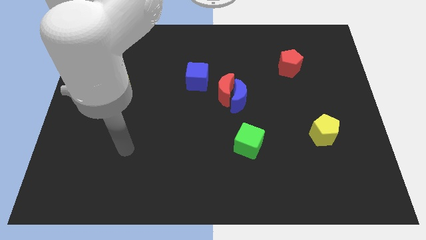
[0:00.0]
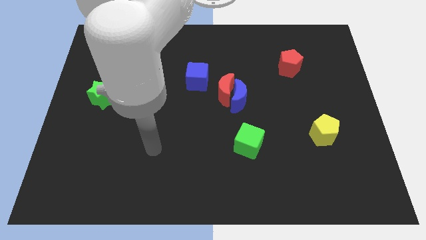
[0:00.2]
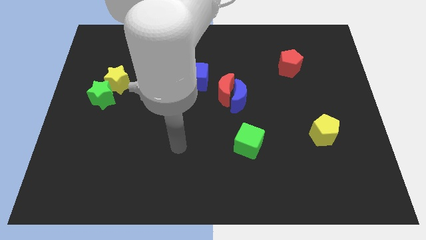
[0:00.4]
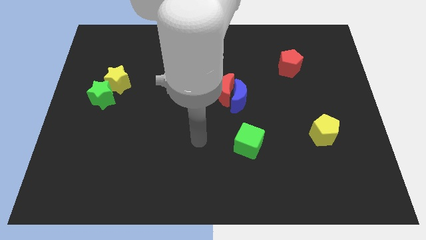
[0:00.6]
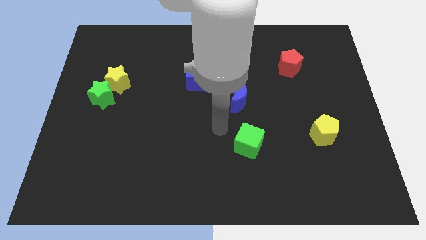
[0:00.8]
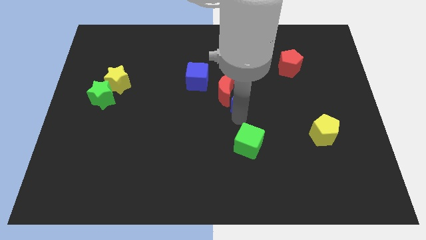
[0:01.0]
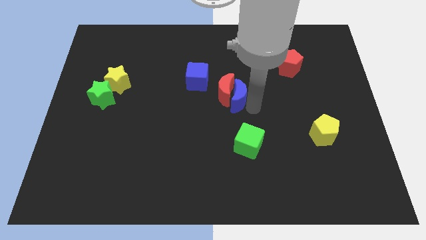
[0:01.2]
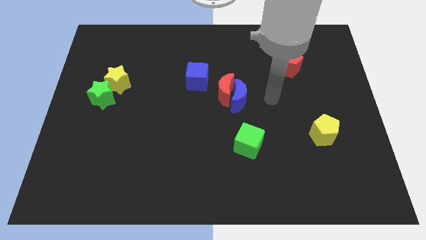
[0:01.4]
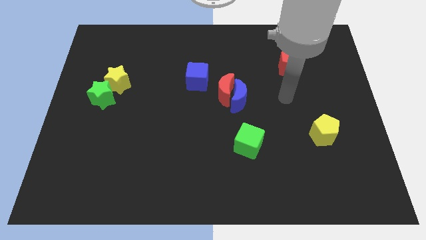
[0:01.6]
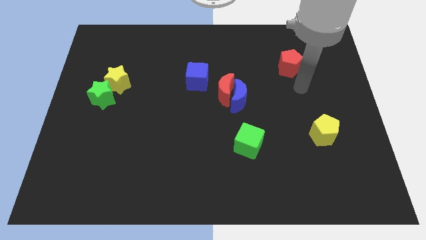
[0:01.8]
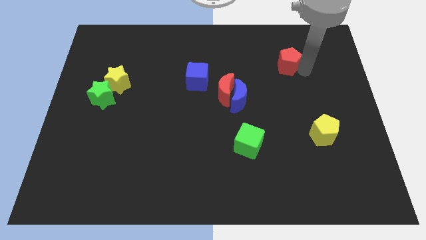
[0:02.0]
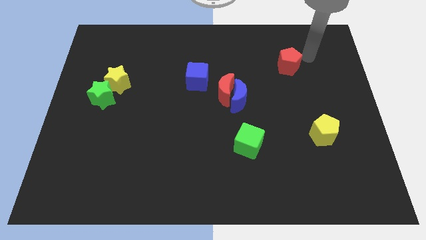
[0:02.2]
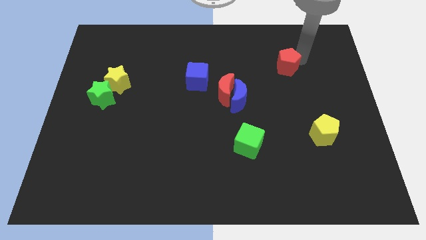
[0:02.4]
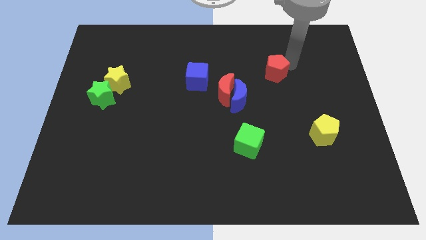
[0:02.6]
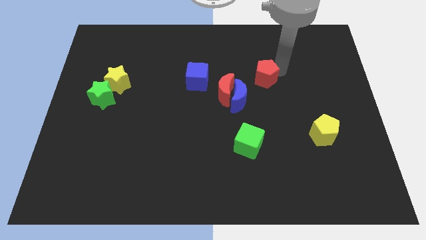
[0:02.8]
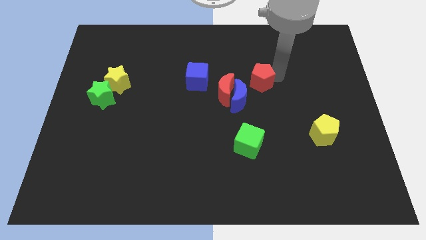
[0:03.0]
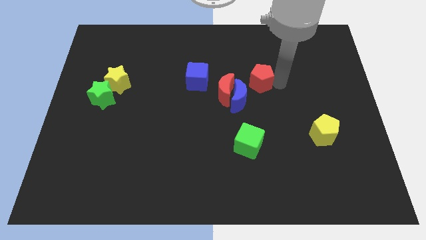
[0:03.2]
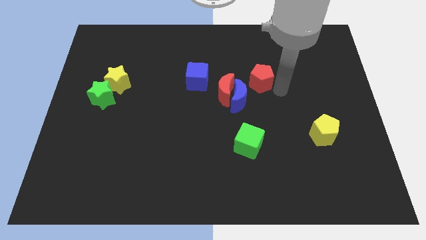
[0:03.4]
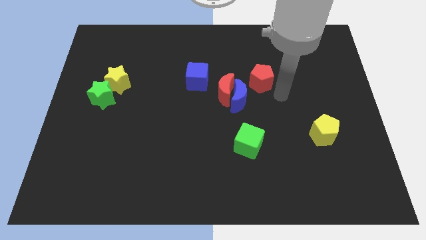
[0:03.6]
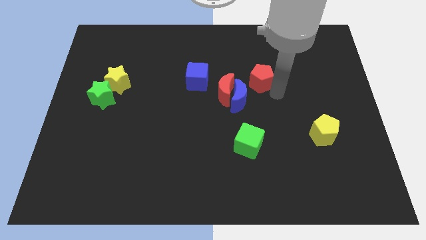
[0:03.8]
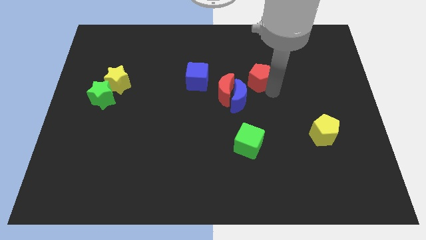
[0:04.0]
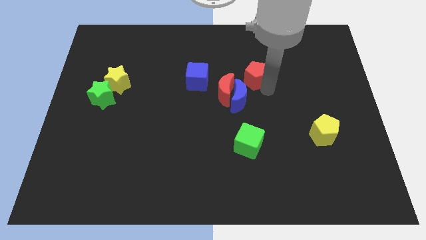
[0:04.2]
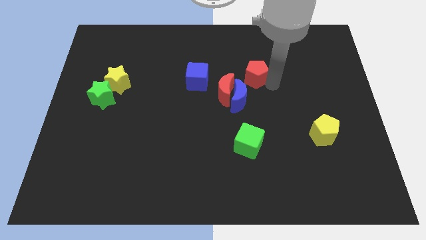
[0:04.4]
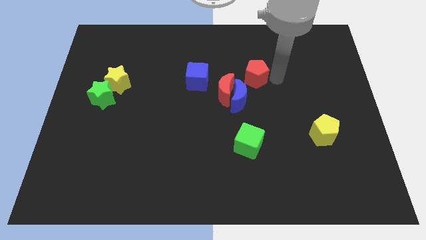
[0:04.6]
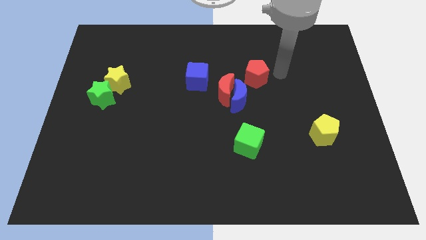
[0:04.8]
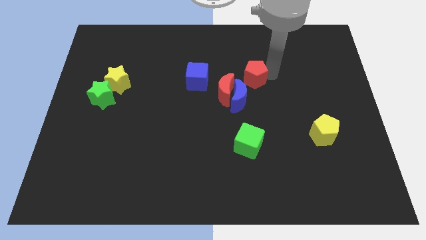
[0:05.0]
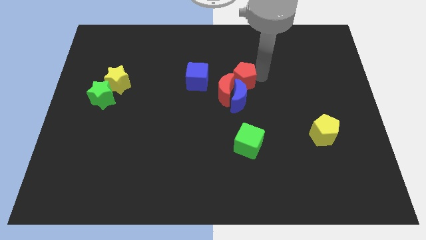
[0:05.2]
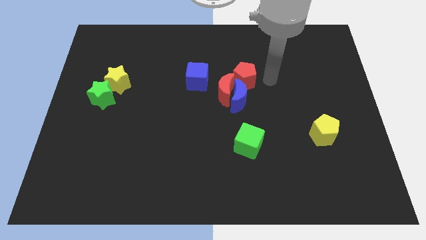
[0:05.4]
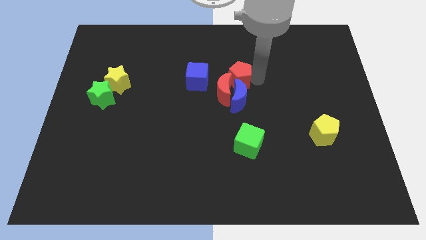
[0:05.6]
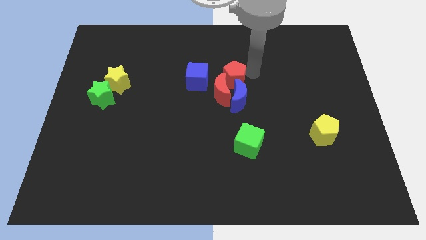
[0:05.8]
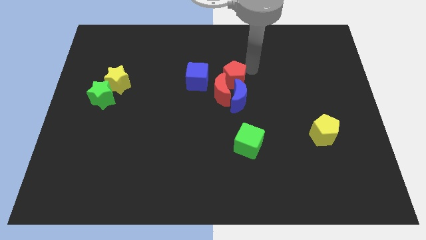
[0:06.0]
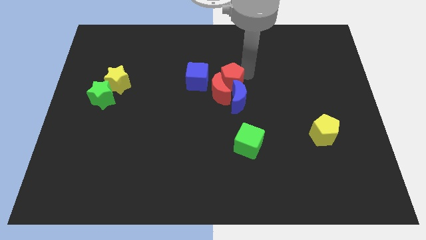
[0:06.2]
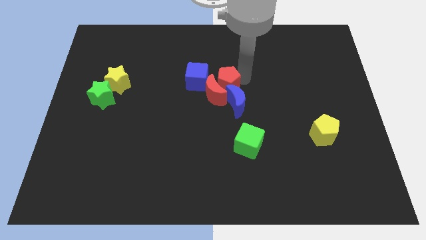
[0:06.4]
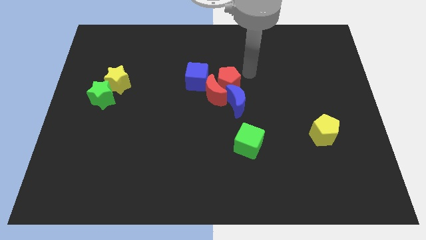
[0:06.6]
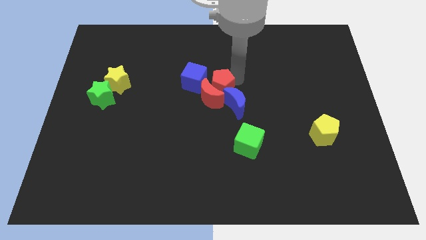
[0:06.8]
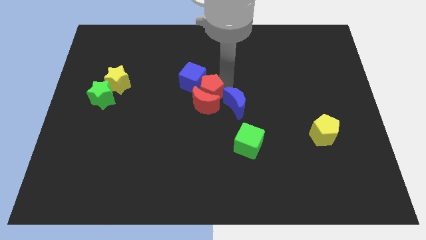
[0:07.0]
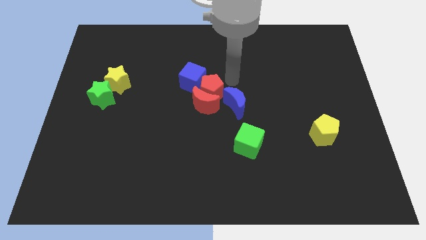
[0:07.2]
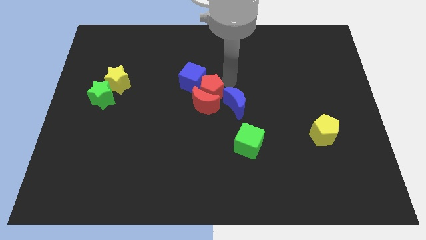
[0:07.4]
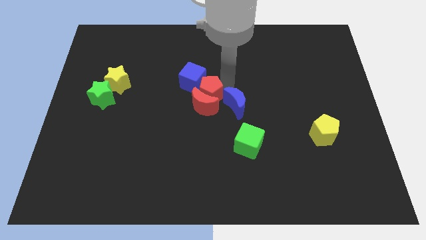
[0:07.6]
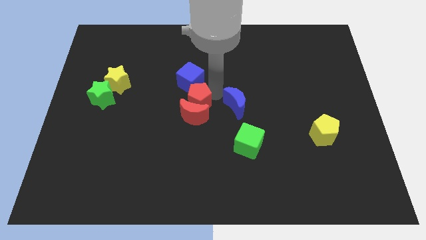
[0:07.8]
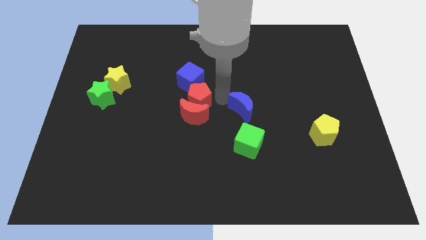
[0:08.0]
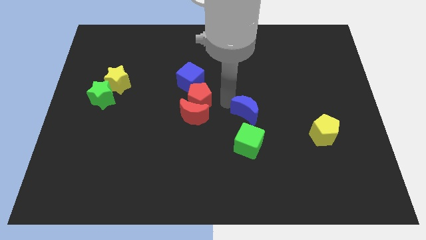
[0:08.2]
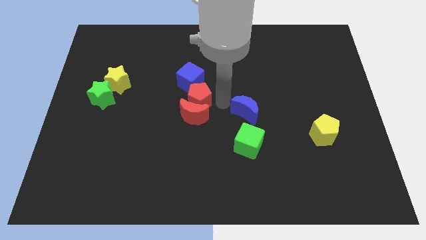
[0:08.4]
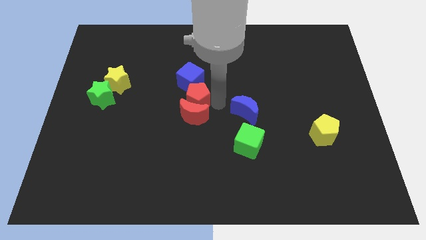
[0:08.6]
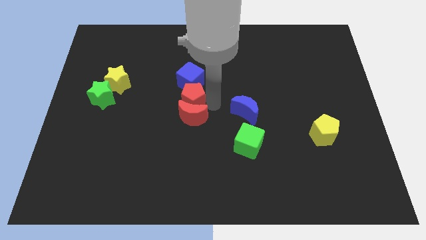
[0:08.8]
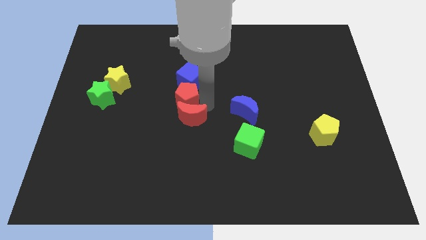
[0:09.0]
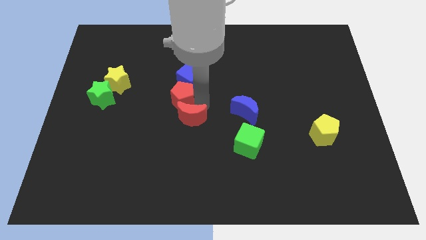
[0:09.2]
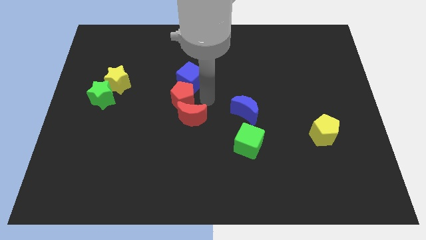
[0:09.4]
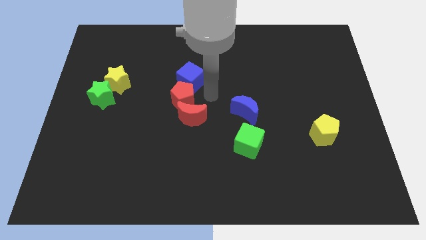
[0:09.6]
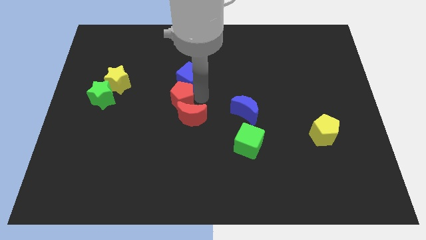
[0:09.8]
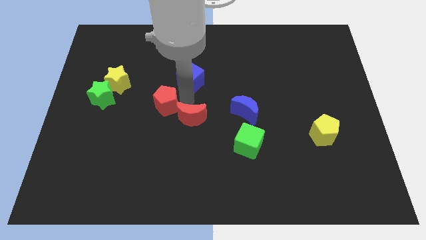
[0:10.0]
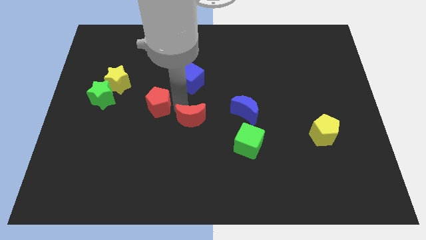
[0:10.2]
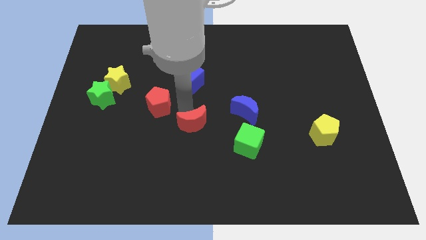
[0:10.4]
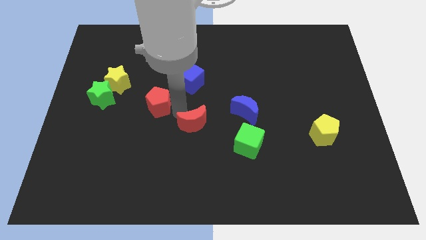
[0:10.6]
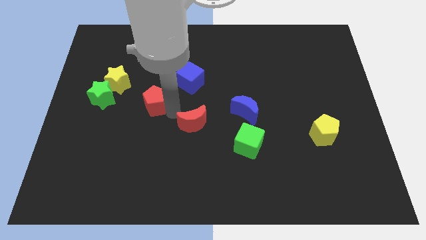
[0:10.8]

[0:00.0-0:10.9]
put the red pentagon to the bottom right of the yellow star

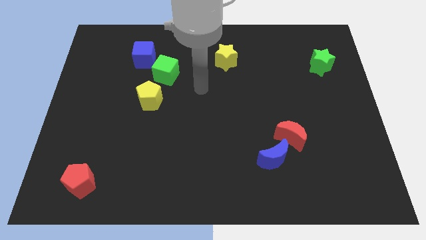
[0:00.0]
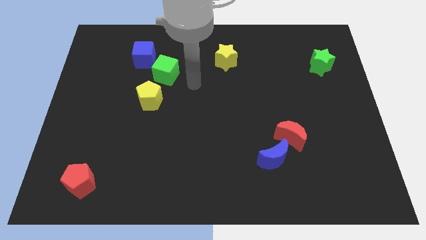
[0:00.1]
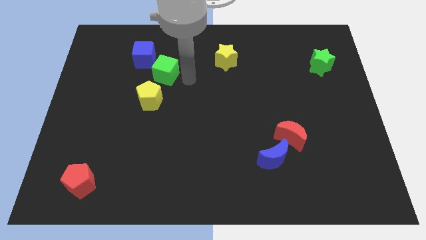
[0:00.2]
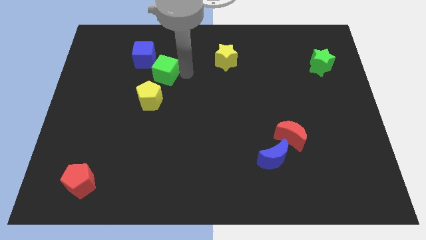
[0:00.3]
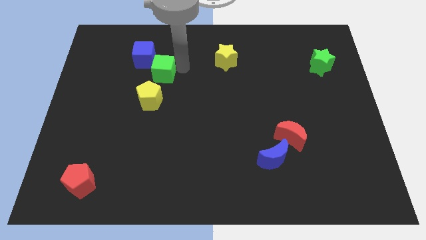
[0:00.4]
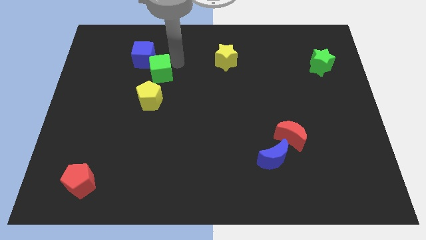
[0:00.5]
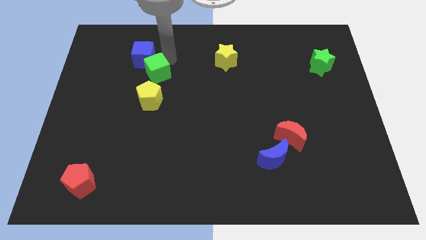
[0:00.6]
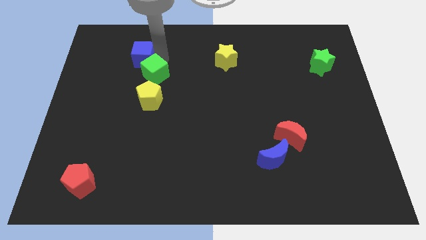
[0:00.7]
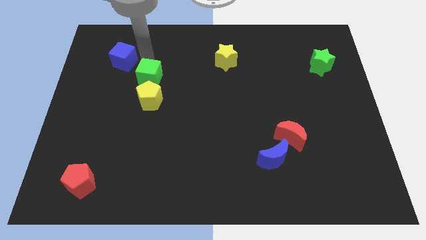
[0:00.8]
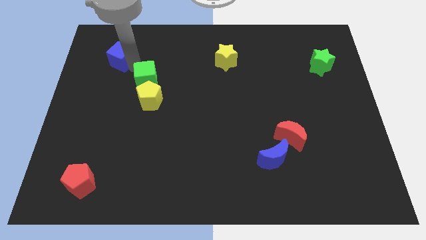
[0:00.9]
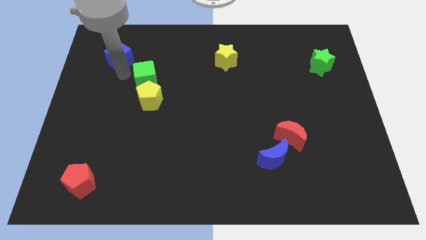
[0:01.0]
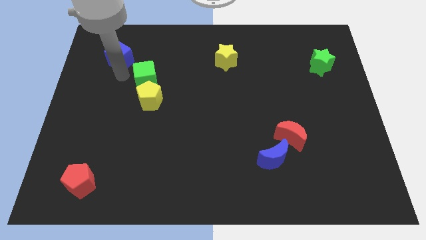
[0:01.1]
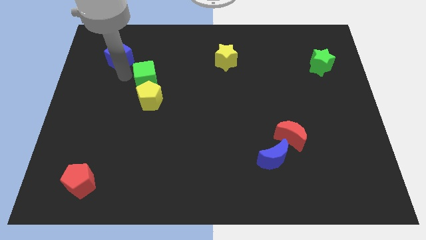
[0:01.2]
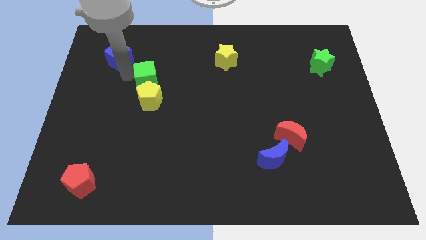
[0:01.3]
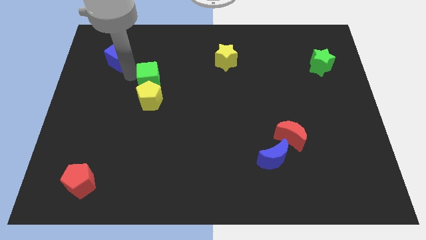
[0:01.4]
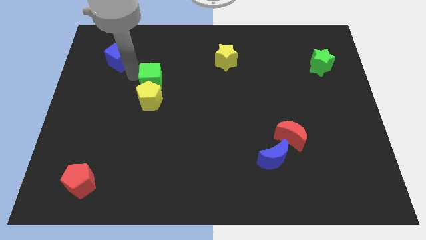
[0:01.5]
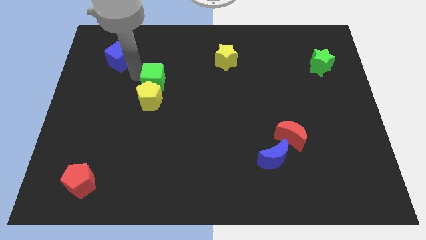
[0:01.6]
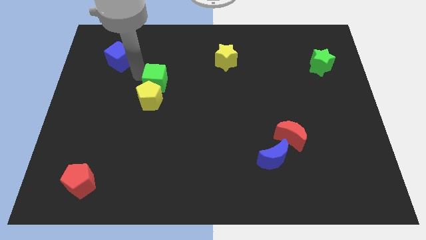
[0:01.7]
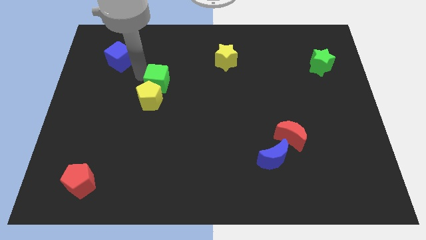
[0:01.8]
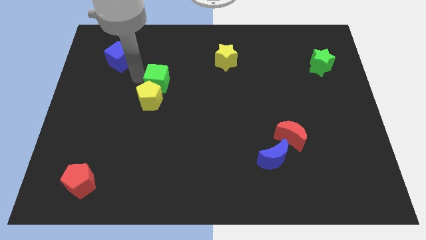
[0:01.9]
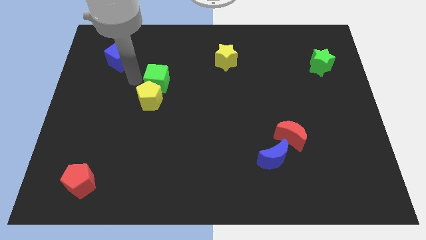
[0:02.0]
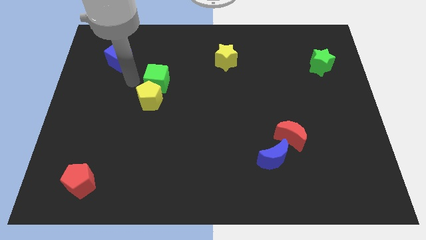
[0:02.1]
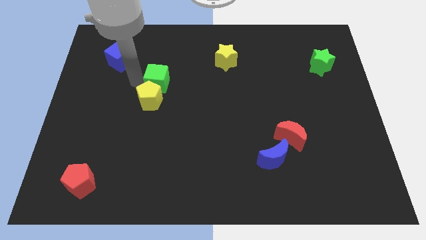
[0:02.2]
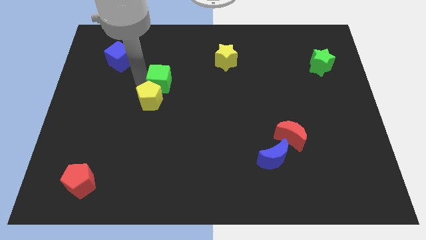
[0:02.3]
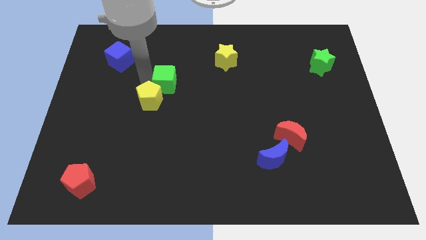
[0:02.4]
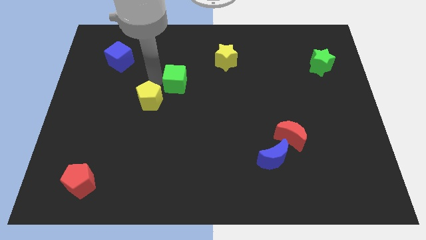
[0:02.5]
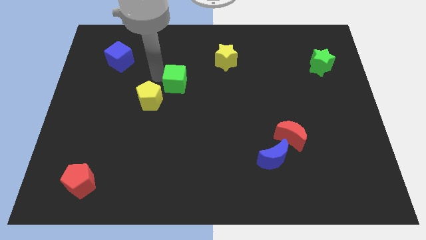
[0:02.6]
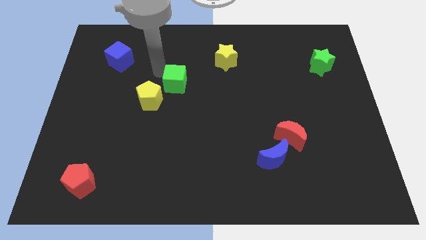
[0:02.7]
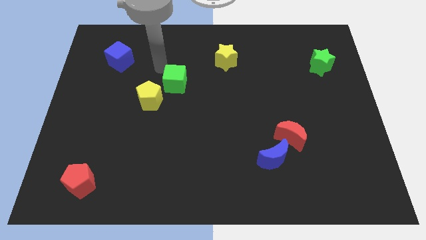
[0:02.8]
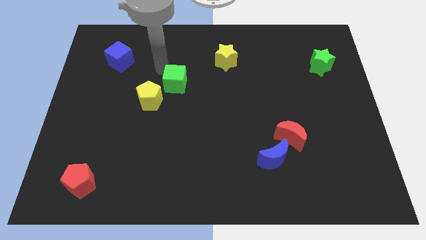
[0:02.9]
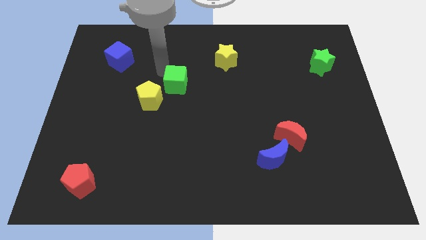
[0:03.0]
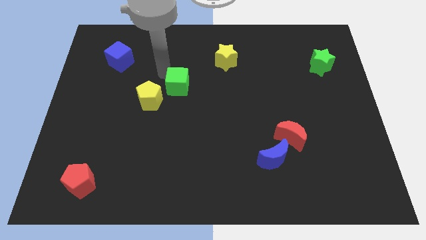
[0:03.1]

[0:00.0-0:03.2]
put the green cube right of the yellow pentagon
